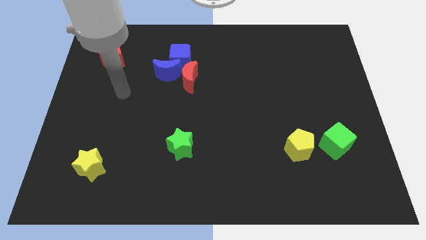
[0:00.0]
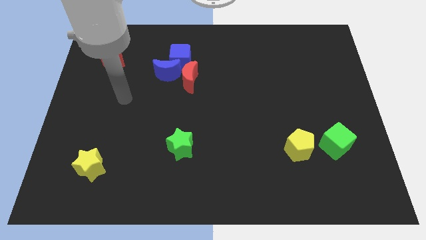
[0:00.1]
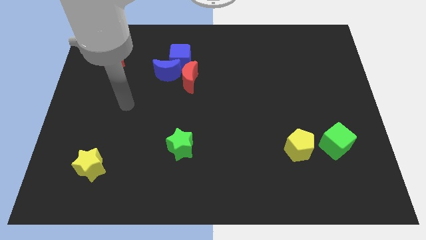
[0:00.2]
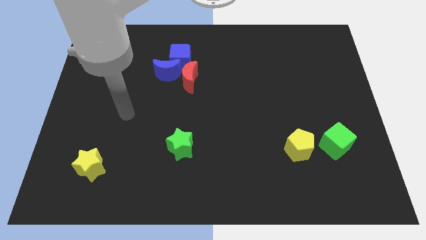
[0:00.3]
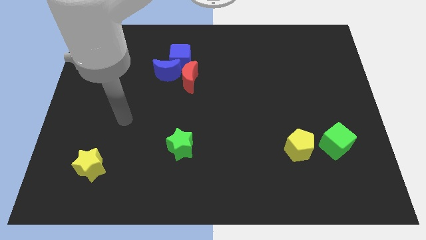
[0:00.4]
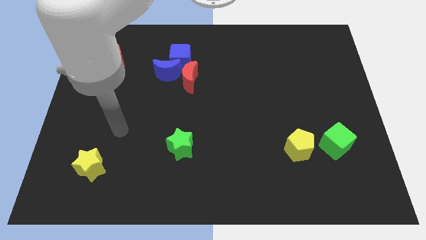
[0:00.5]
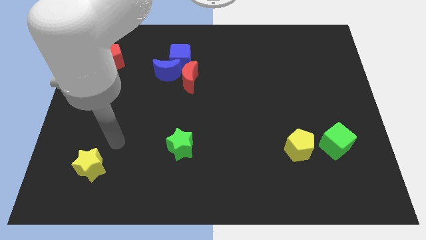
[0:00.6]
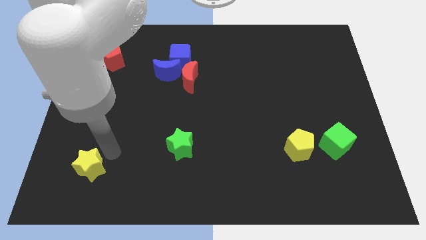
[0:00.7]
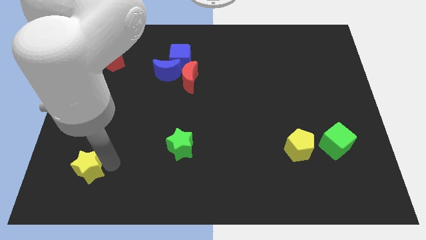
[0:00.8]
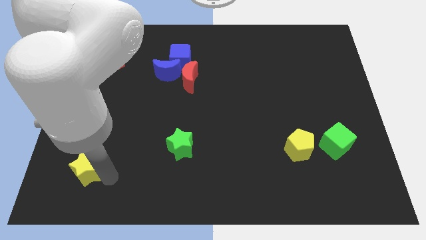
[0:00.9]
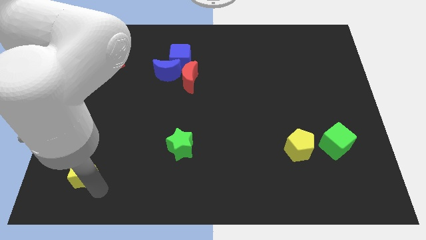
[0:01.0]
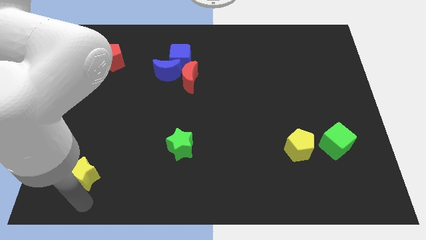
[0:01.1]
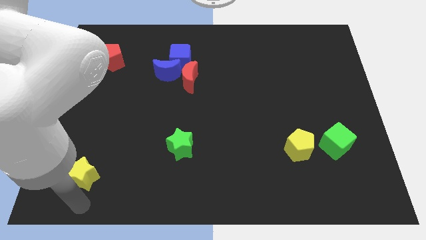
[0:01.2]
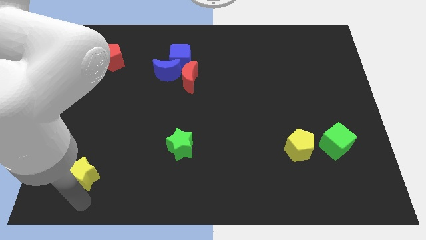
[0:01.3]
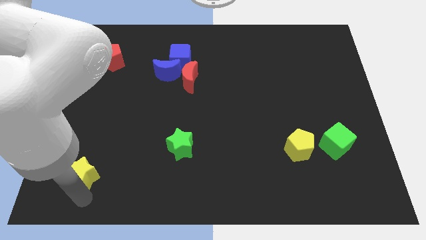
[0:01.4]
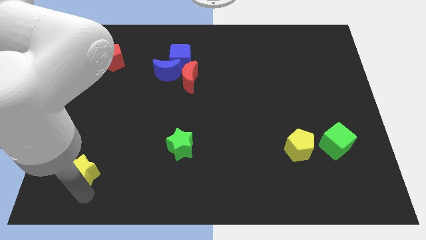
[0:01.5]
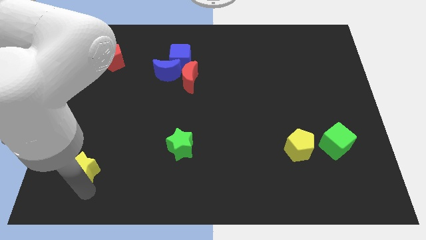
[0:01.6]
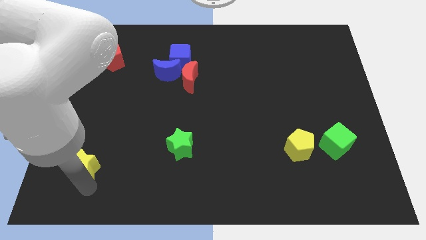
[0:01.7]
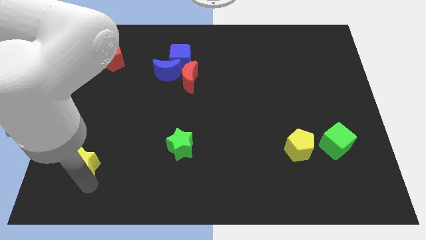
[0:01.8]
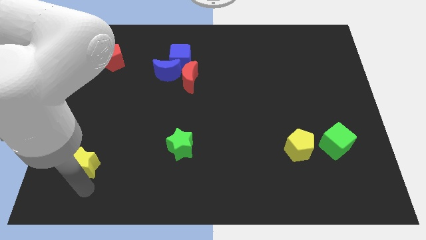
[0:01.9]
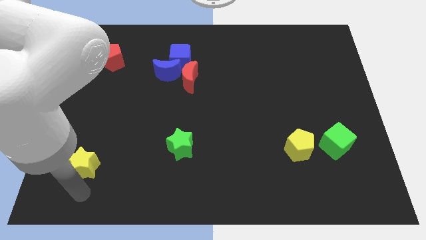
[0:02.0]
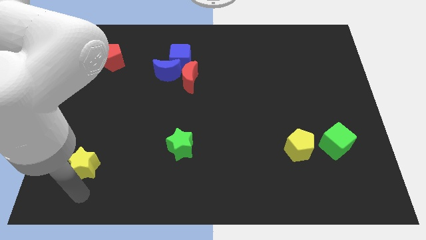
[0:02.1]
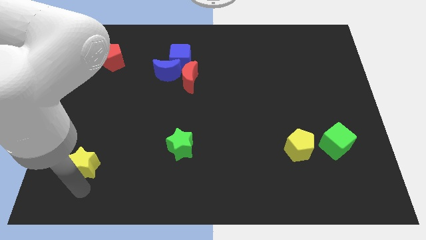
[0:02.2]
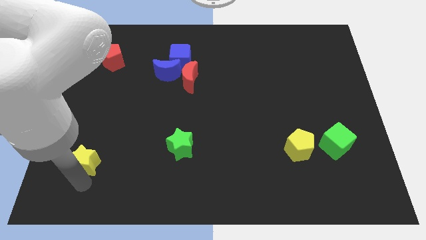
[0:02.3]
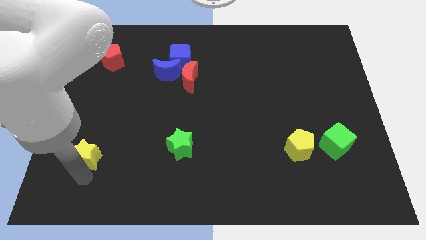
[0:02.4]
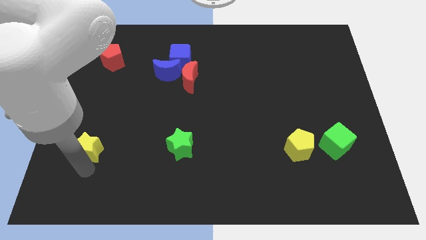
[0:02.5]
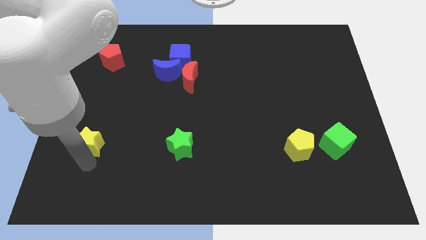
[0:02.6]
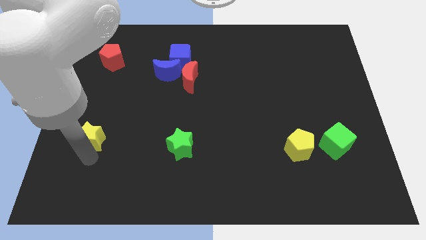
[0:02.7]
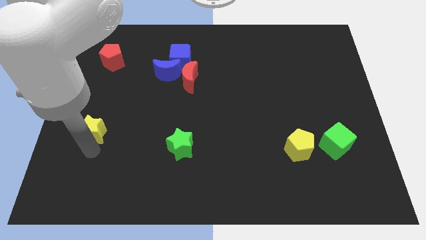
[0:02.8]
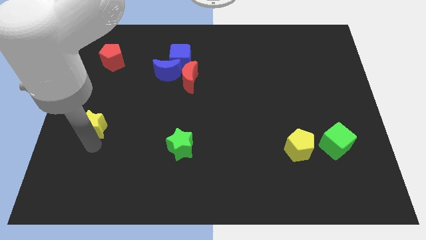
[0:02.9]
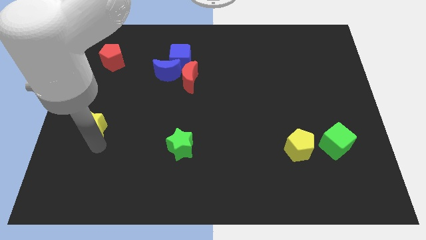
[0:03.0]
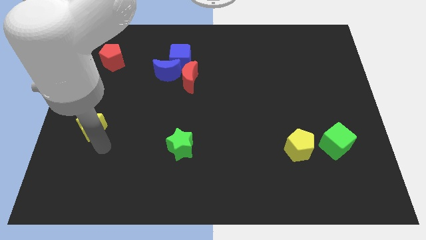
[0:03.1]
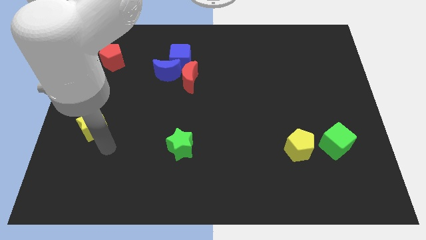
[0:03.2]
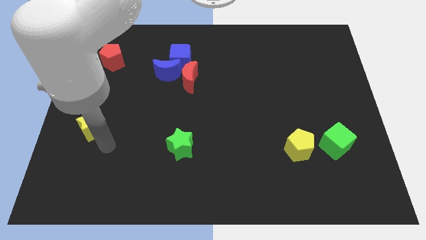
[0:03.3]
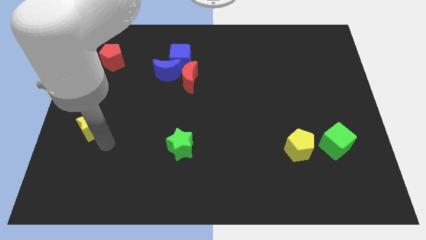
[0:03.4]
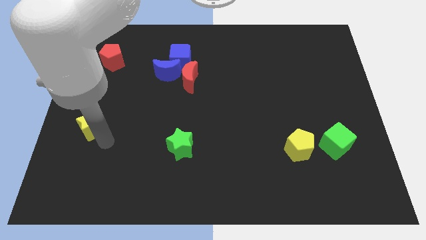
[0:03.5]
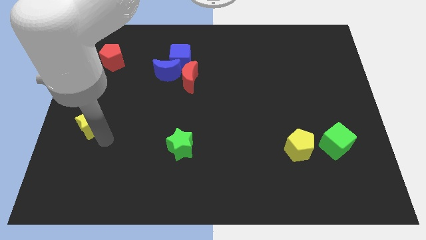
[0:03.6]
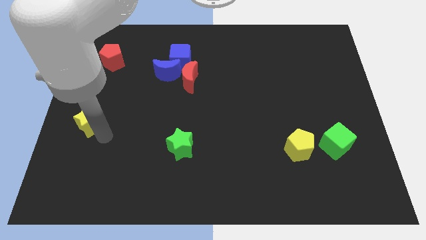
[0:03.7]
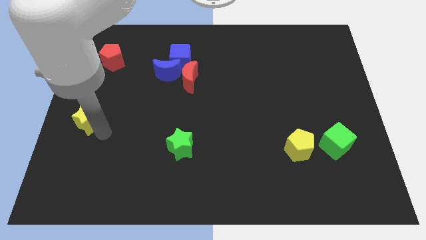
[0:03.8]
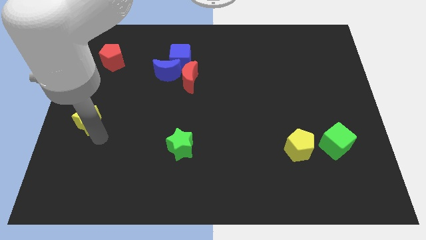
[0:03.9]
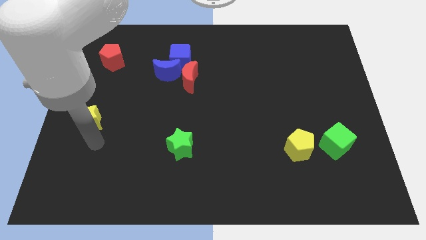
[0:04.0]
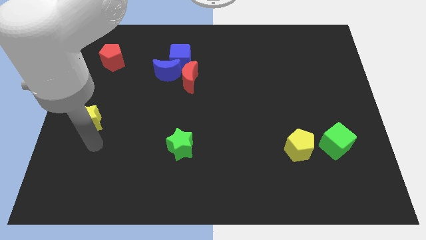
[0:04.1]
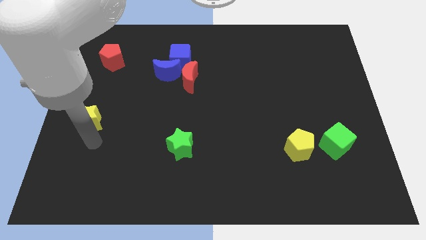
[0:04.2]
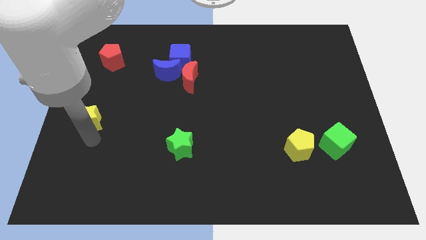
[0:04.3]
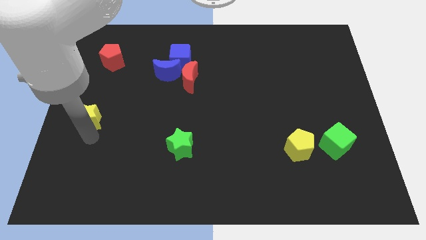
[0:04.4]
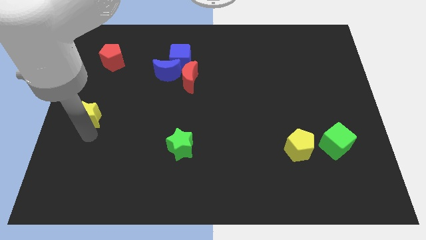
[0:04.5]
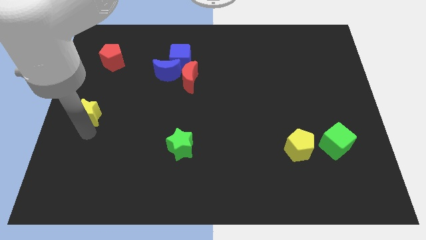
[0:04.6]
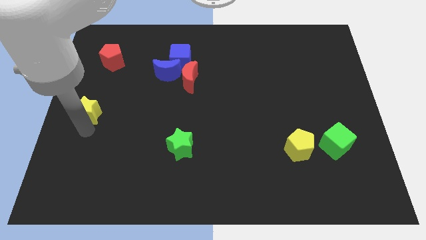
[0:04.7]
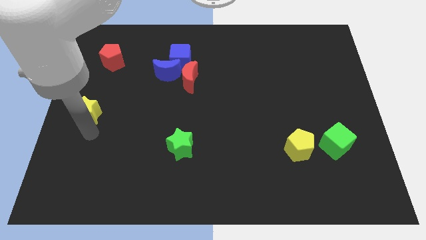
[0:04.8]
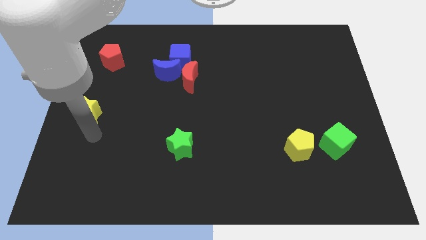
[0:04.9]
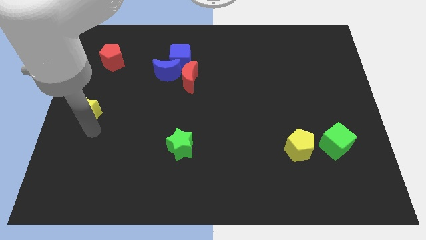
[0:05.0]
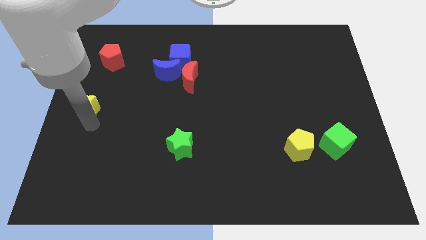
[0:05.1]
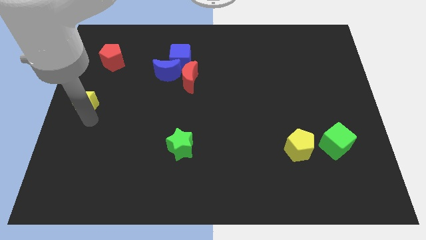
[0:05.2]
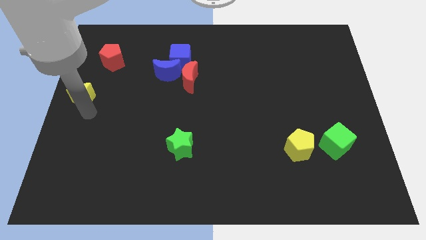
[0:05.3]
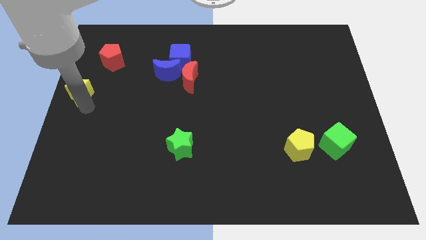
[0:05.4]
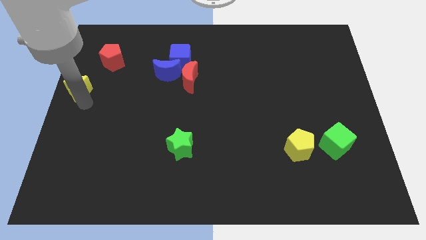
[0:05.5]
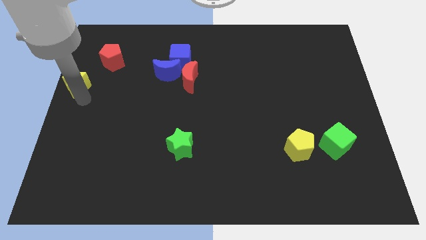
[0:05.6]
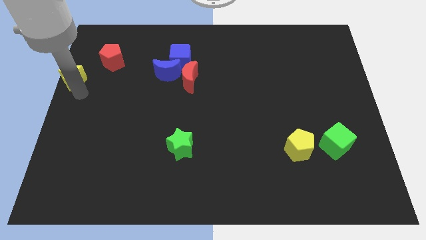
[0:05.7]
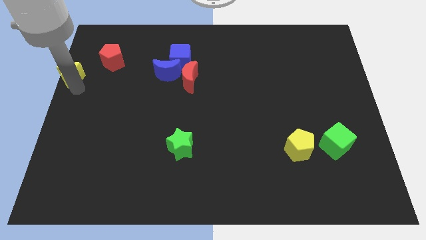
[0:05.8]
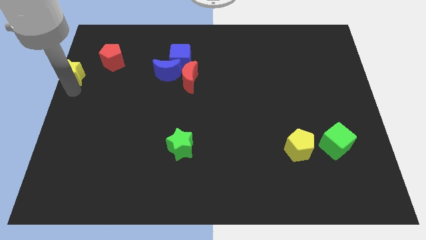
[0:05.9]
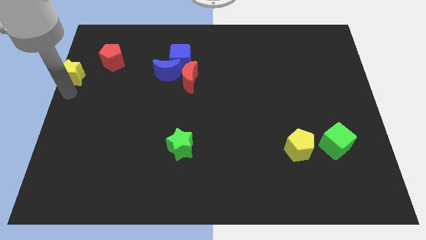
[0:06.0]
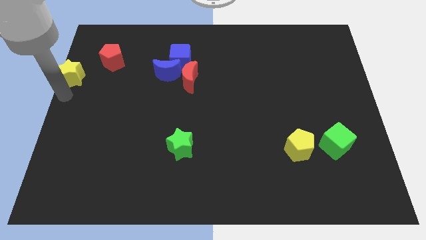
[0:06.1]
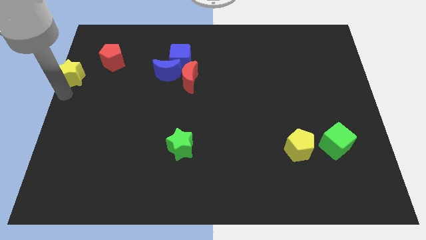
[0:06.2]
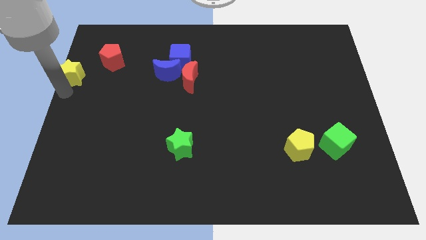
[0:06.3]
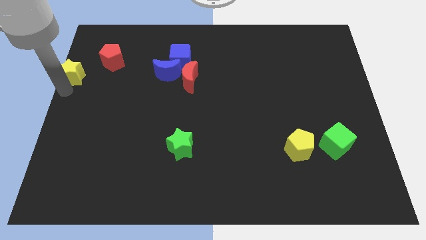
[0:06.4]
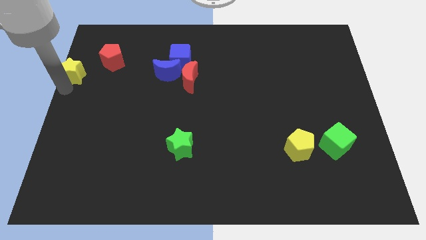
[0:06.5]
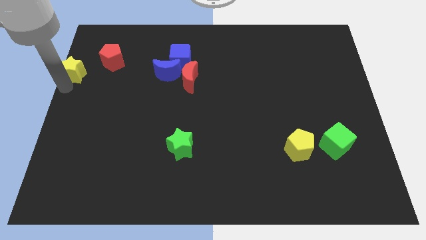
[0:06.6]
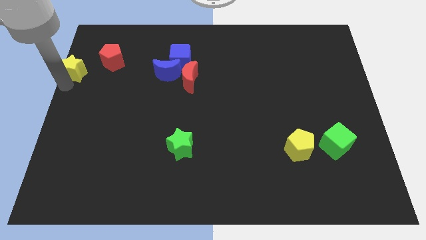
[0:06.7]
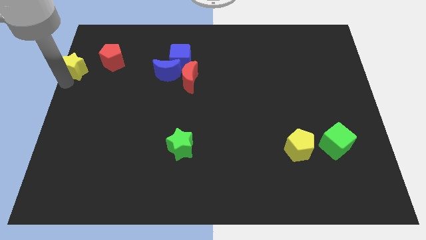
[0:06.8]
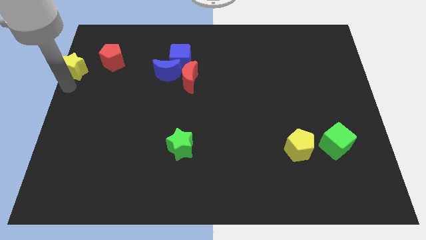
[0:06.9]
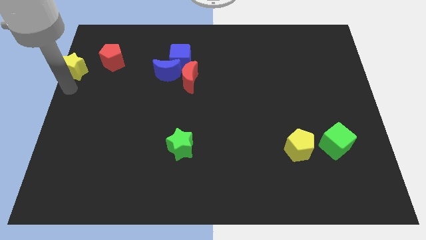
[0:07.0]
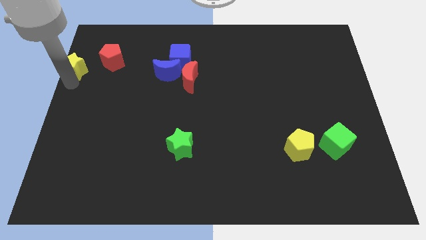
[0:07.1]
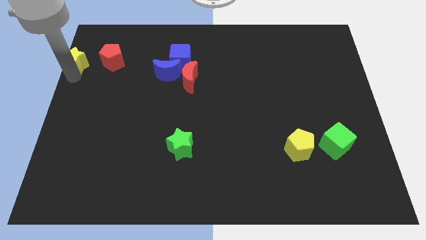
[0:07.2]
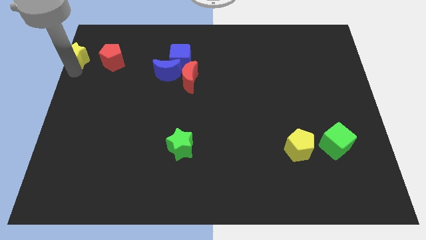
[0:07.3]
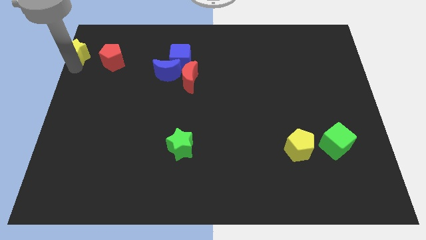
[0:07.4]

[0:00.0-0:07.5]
push the yellow star to the top left of the board
